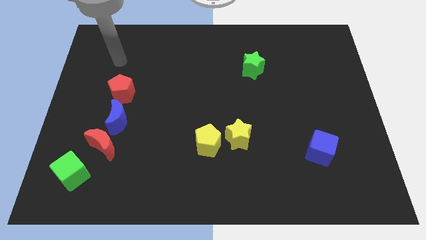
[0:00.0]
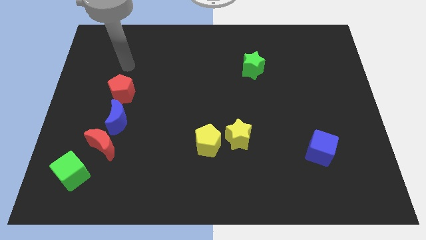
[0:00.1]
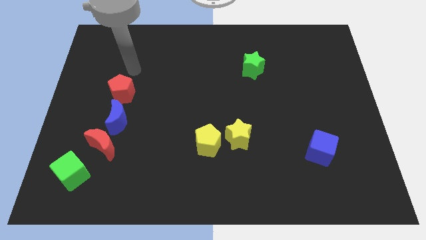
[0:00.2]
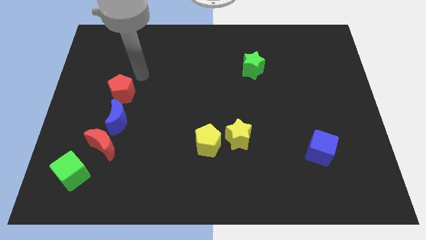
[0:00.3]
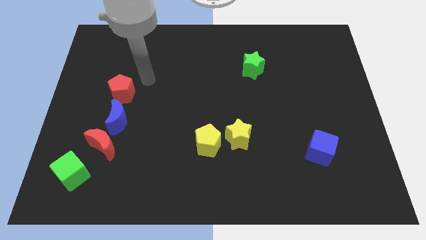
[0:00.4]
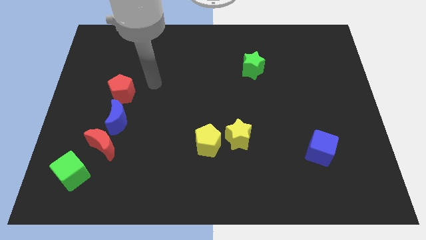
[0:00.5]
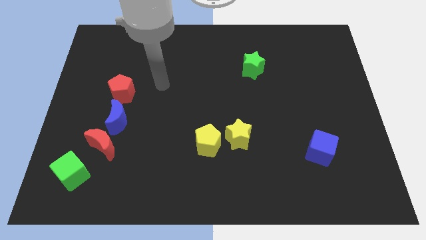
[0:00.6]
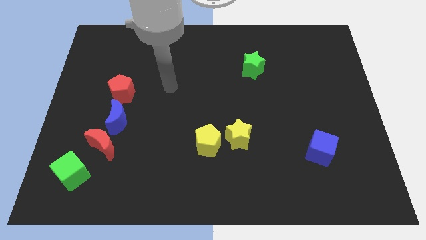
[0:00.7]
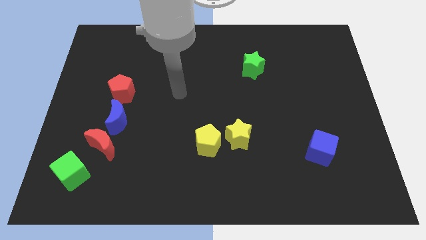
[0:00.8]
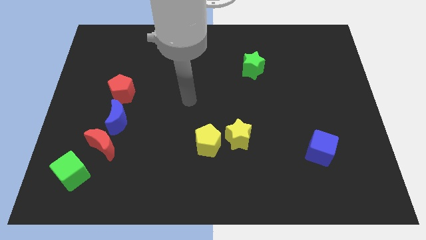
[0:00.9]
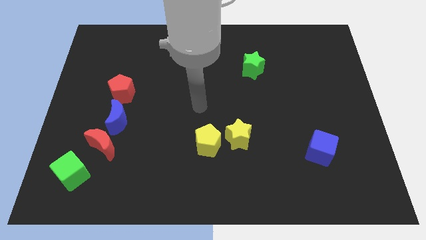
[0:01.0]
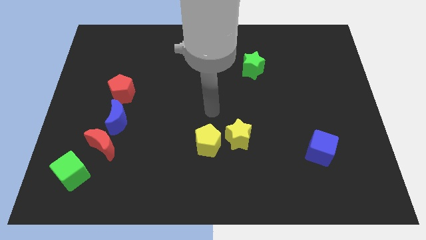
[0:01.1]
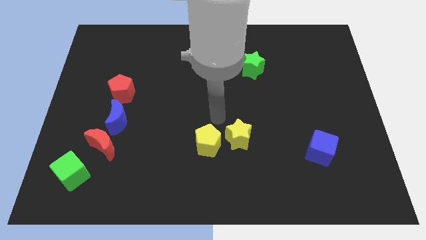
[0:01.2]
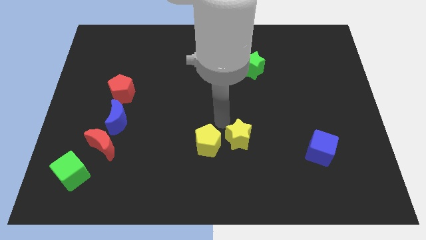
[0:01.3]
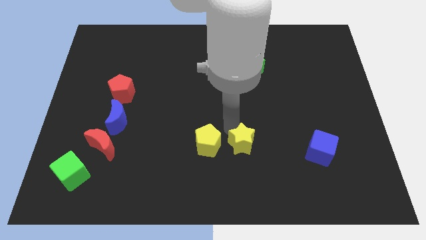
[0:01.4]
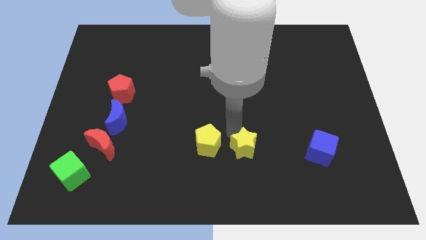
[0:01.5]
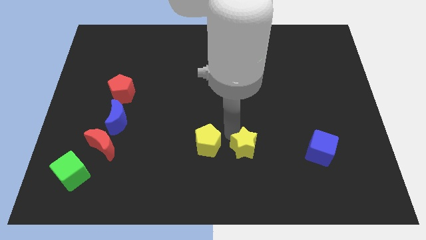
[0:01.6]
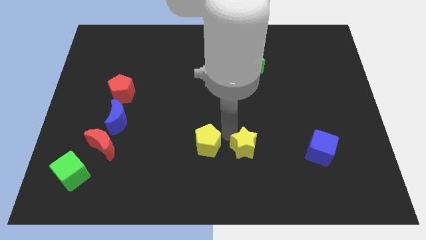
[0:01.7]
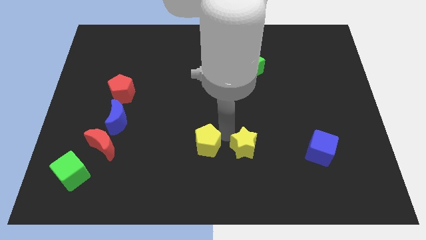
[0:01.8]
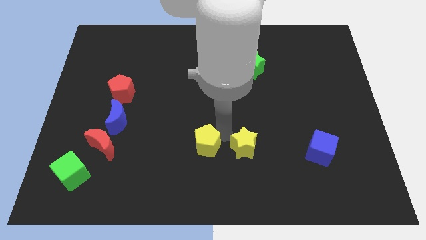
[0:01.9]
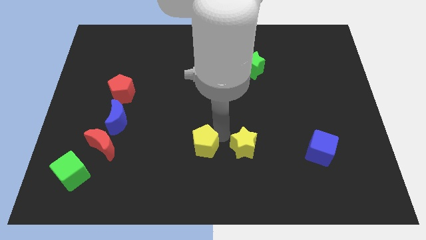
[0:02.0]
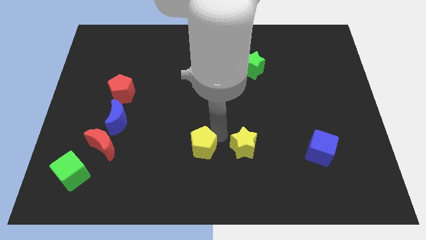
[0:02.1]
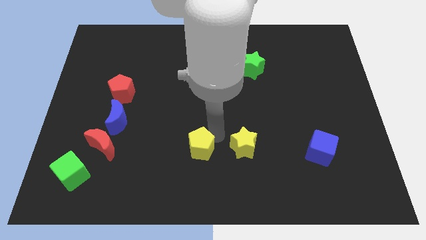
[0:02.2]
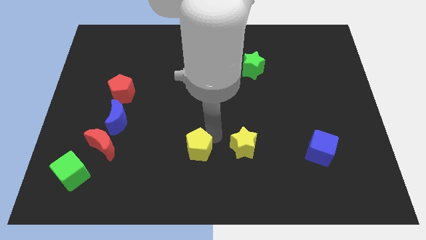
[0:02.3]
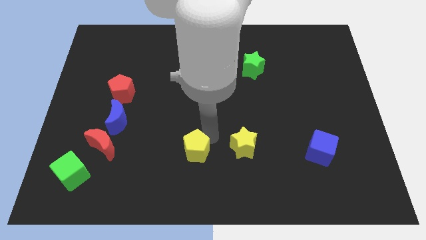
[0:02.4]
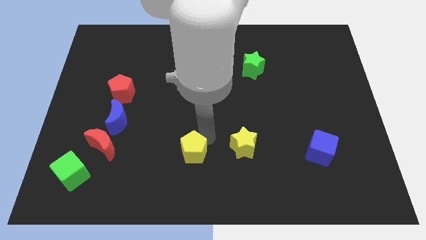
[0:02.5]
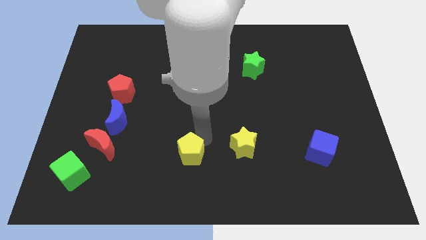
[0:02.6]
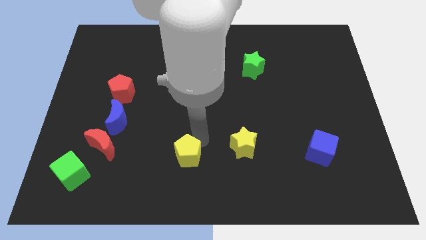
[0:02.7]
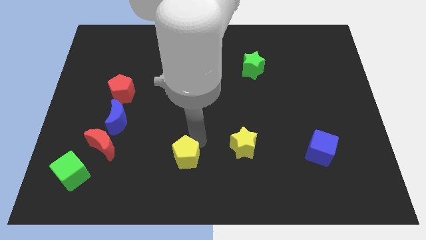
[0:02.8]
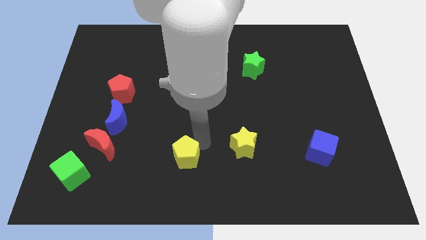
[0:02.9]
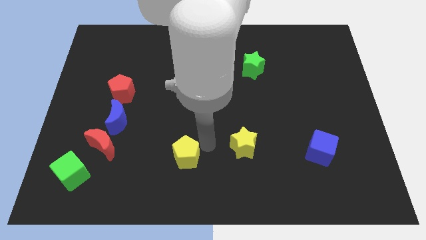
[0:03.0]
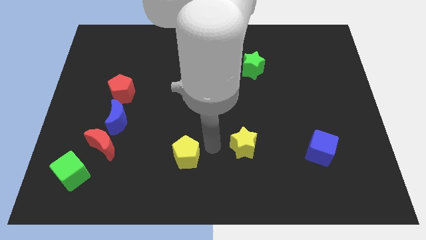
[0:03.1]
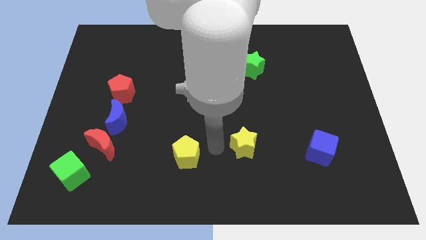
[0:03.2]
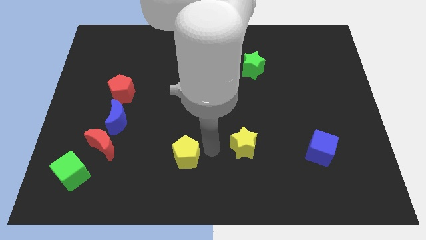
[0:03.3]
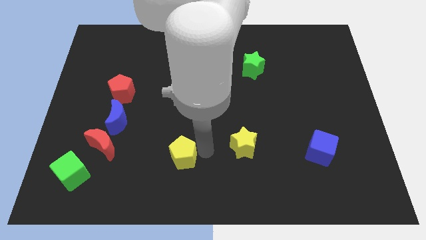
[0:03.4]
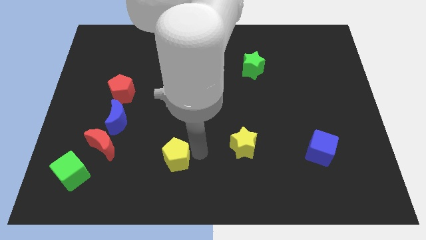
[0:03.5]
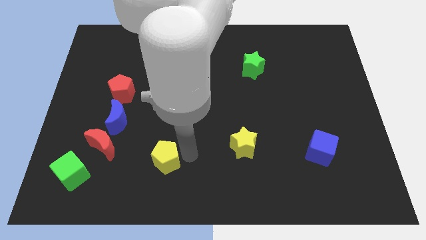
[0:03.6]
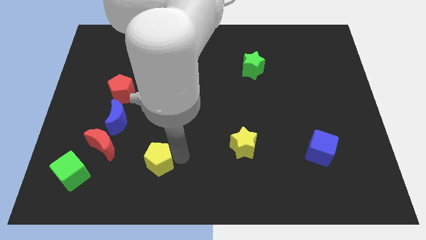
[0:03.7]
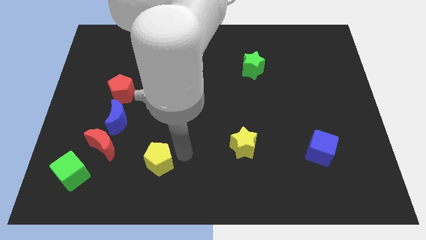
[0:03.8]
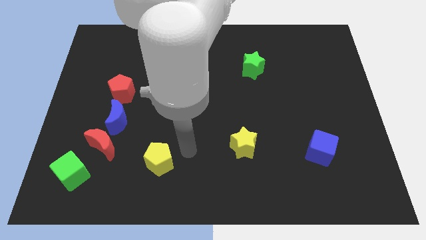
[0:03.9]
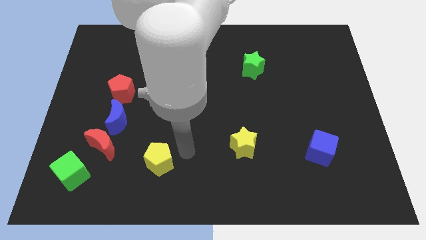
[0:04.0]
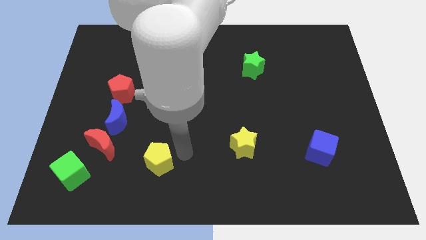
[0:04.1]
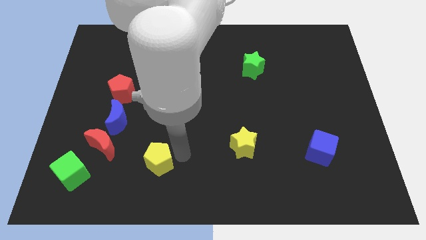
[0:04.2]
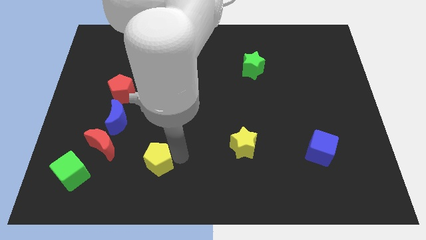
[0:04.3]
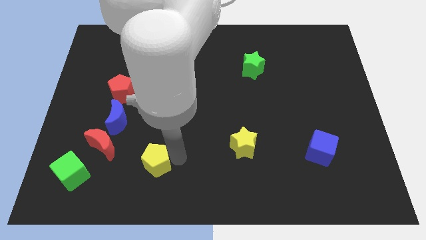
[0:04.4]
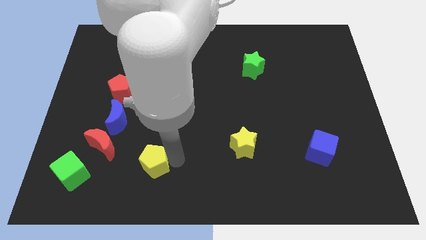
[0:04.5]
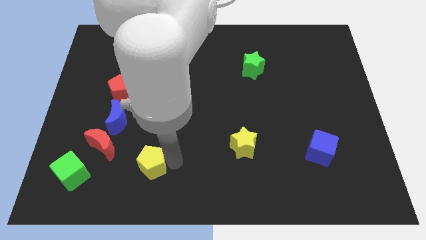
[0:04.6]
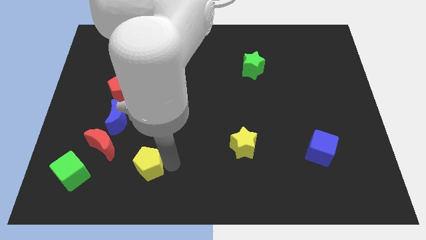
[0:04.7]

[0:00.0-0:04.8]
move the yellow pentagon to the right of the green cube

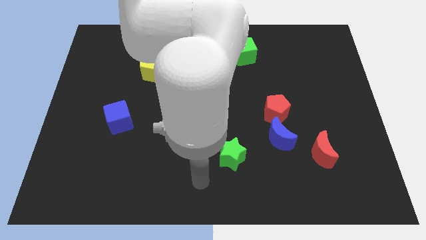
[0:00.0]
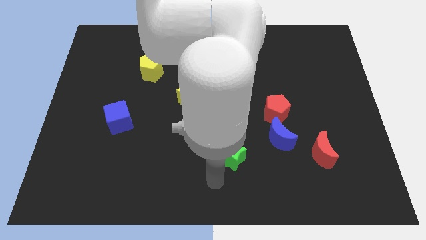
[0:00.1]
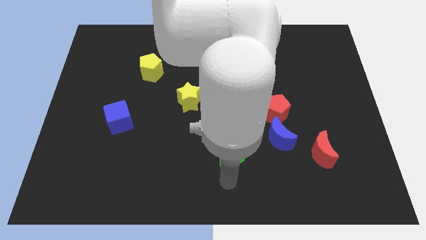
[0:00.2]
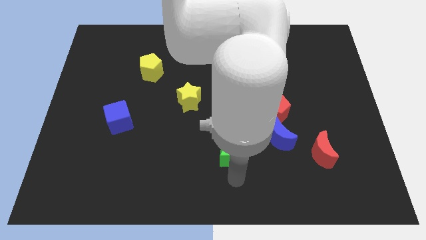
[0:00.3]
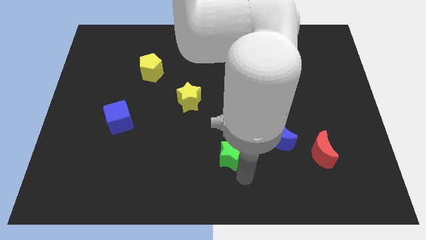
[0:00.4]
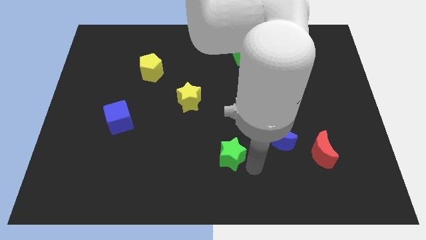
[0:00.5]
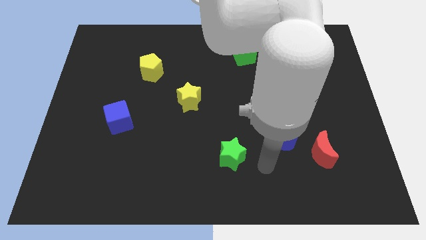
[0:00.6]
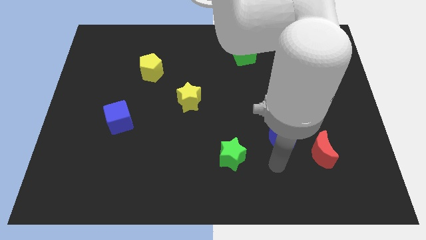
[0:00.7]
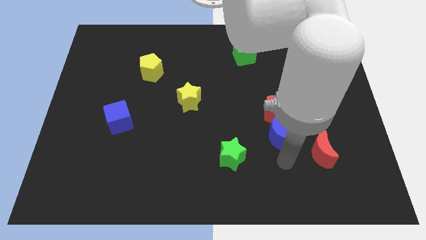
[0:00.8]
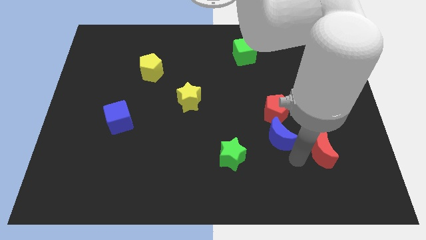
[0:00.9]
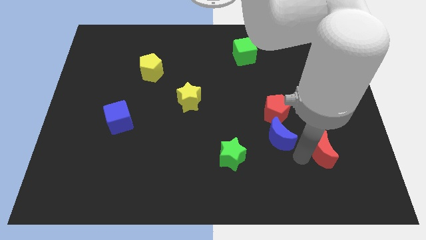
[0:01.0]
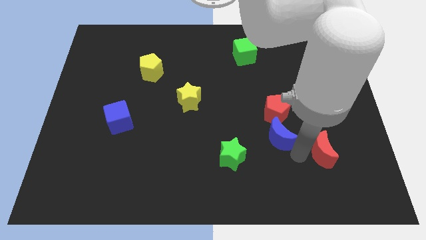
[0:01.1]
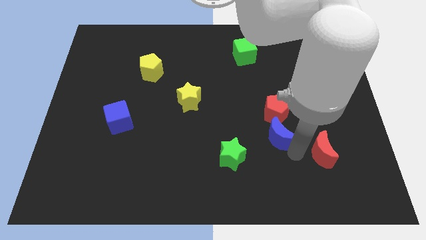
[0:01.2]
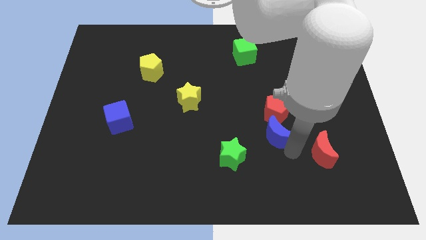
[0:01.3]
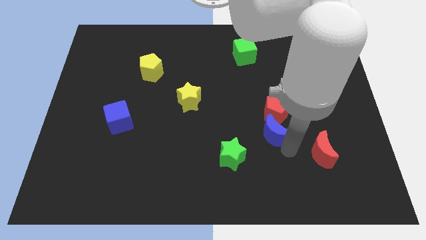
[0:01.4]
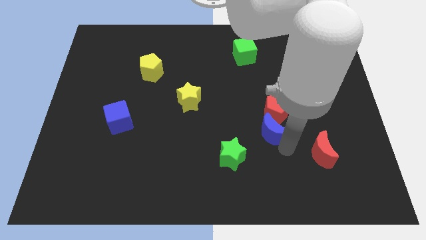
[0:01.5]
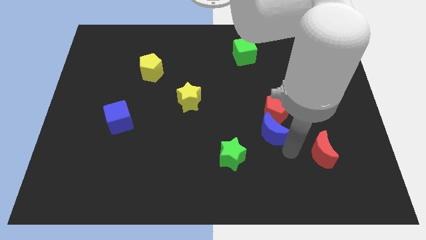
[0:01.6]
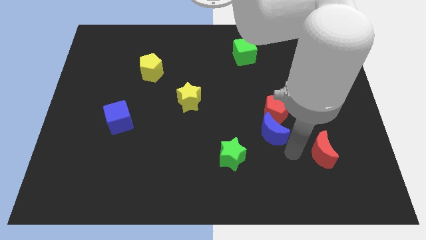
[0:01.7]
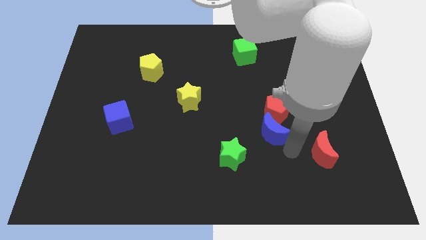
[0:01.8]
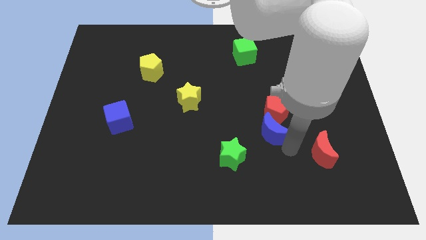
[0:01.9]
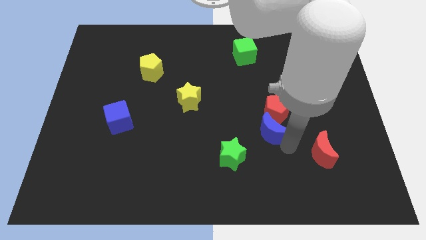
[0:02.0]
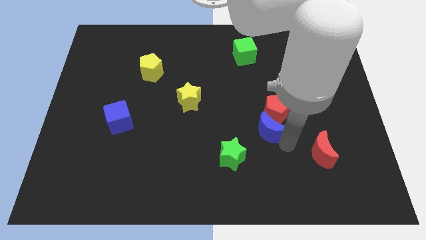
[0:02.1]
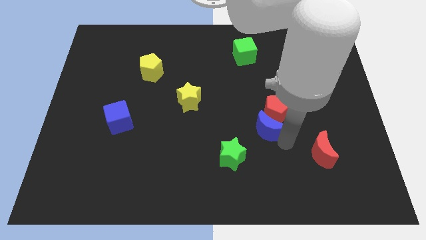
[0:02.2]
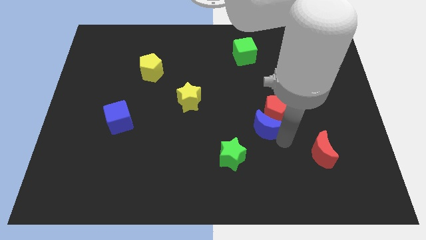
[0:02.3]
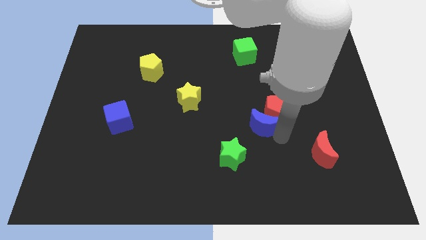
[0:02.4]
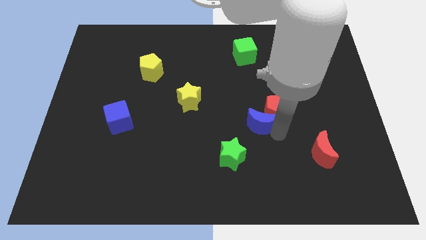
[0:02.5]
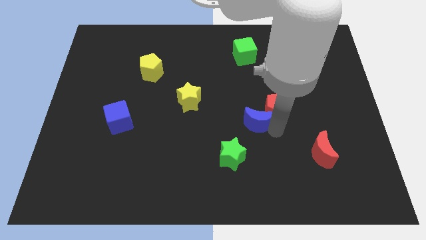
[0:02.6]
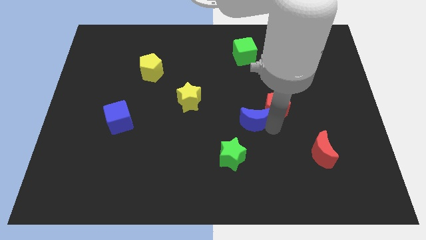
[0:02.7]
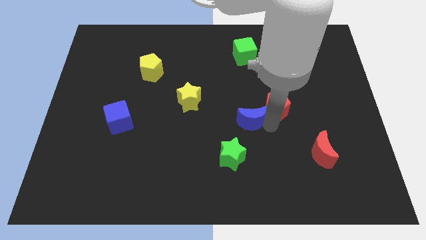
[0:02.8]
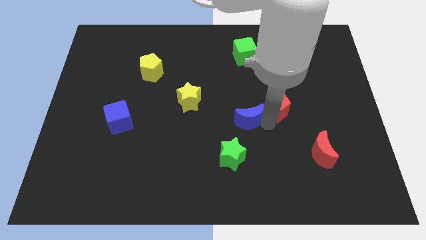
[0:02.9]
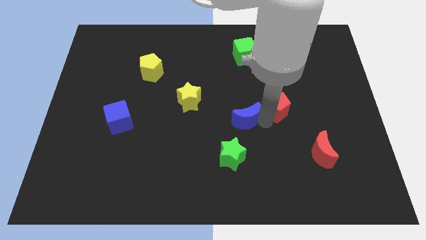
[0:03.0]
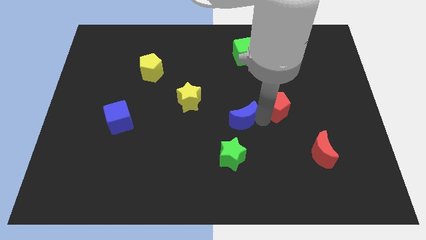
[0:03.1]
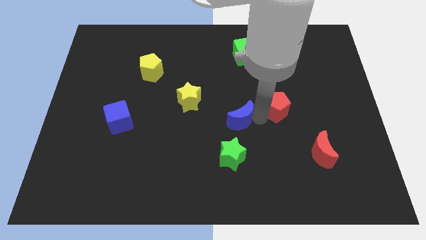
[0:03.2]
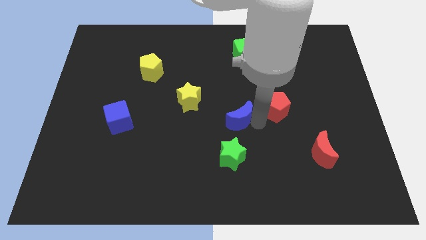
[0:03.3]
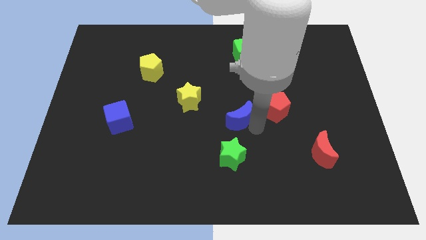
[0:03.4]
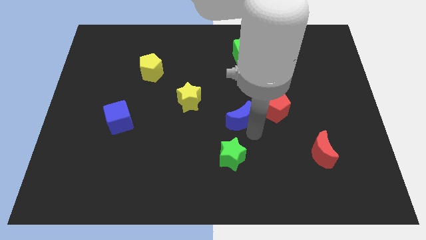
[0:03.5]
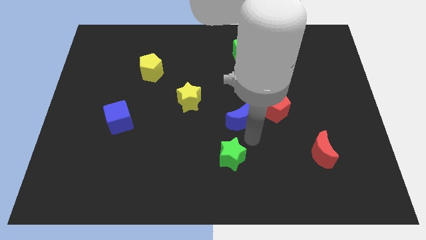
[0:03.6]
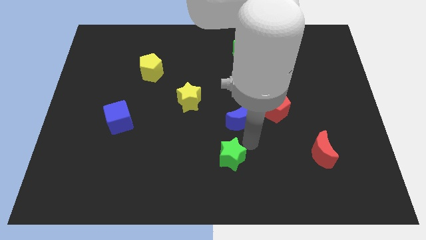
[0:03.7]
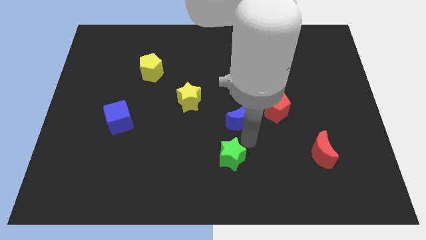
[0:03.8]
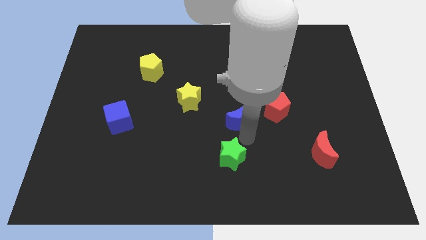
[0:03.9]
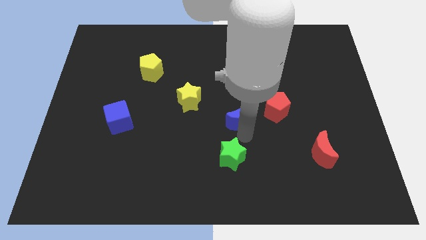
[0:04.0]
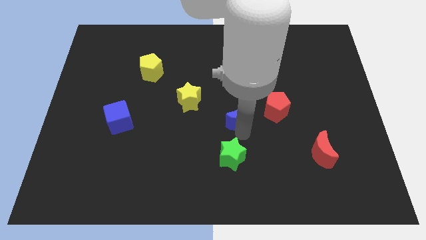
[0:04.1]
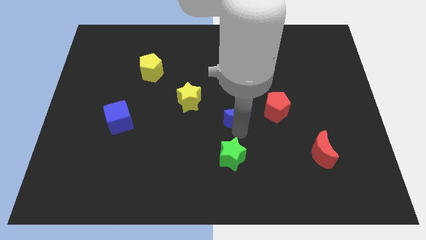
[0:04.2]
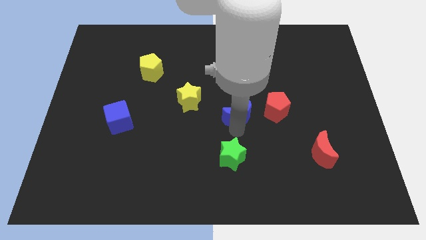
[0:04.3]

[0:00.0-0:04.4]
slide the blue moon to the right of the yellow star
